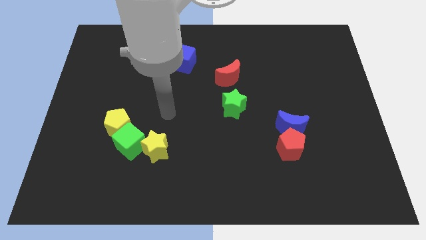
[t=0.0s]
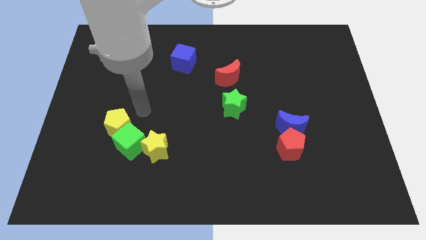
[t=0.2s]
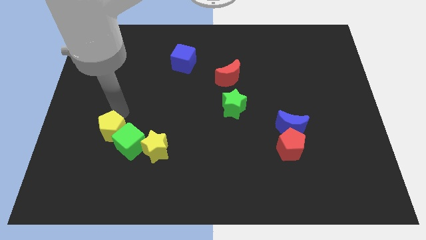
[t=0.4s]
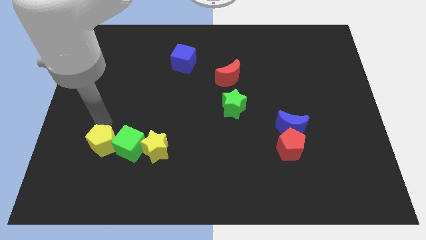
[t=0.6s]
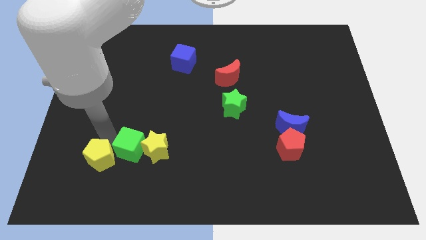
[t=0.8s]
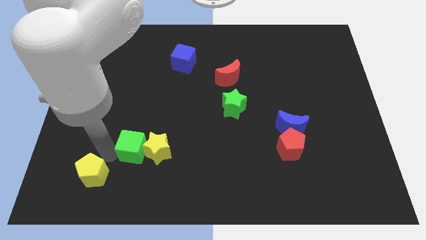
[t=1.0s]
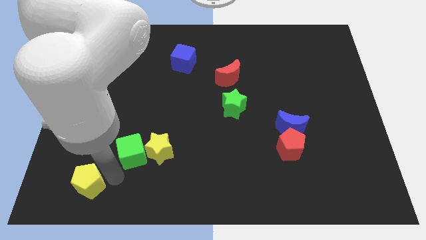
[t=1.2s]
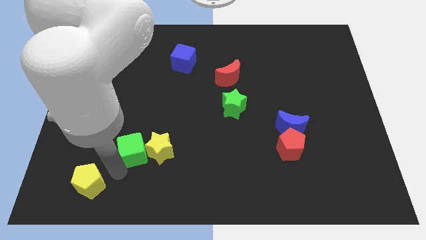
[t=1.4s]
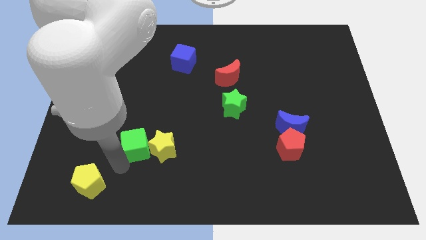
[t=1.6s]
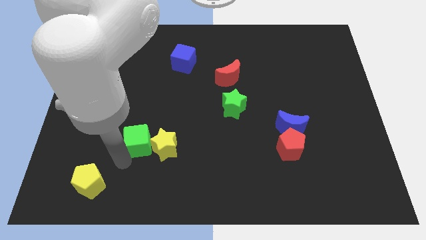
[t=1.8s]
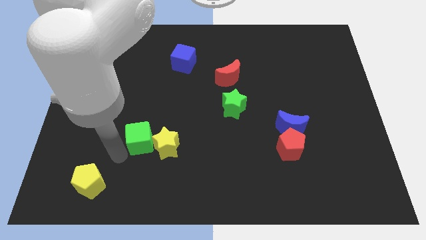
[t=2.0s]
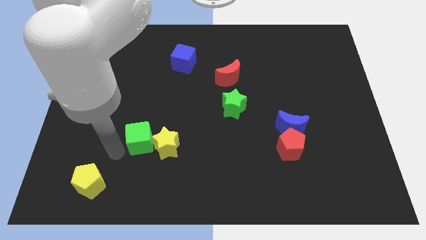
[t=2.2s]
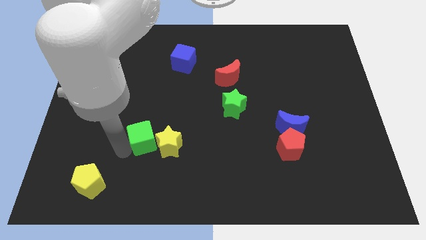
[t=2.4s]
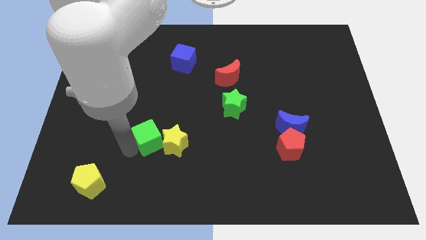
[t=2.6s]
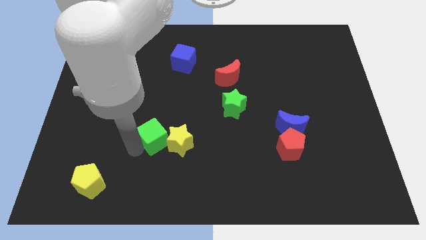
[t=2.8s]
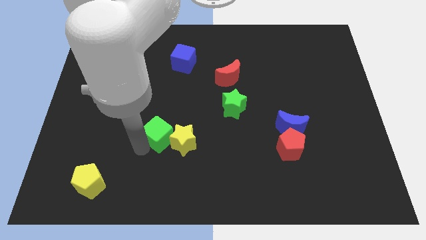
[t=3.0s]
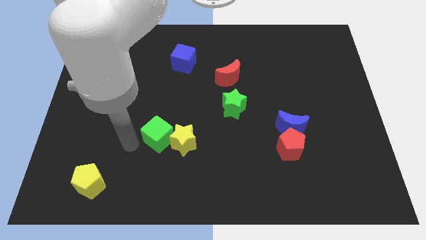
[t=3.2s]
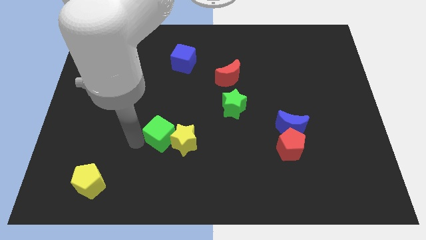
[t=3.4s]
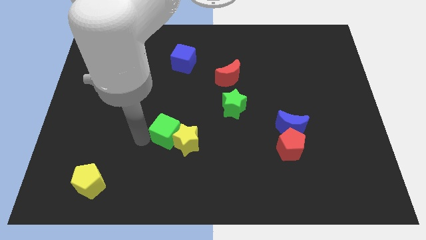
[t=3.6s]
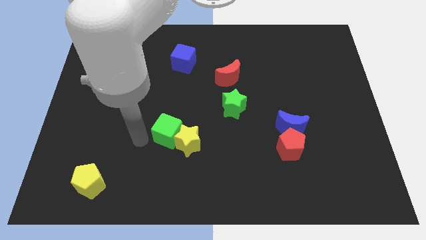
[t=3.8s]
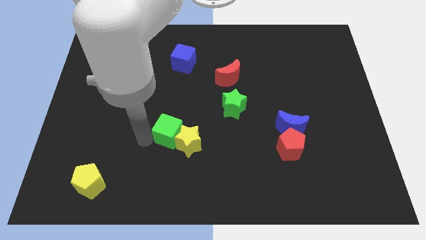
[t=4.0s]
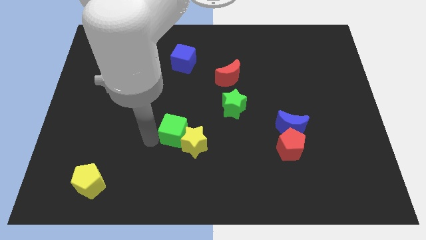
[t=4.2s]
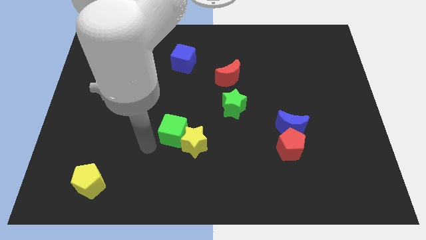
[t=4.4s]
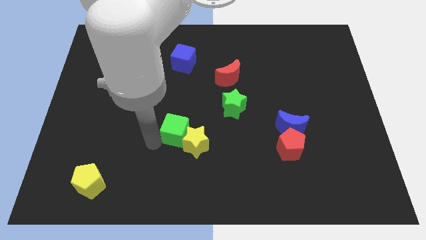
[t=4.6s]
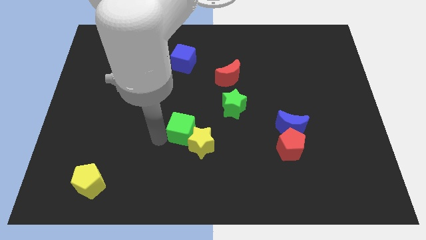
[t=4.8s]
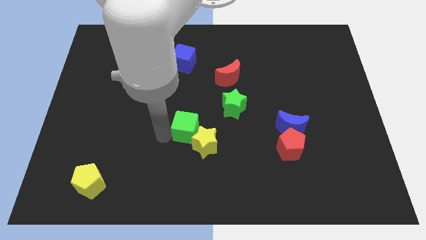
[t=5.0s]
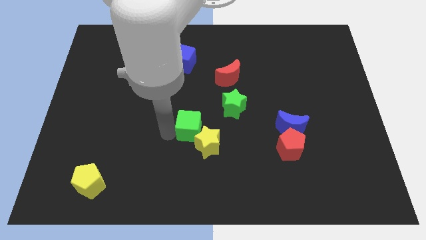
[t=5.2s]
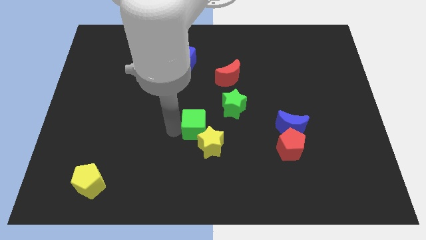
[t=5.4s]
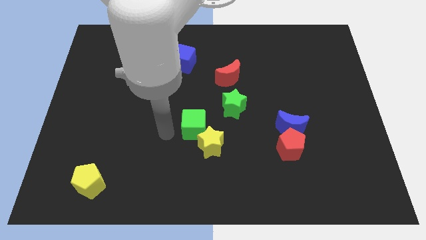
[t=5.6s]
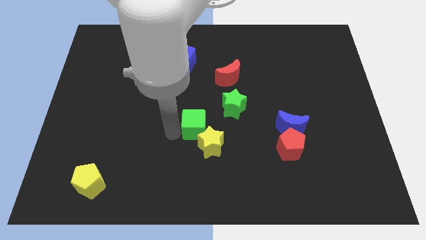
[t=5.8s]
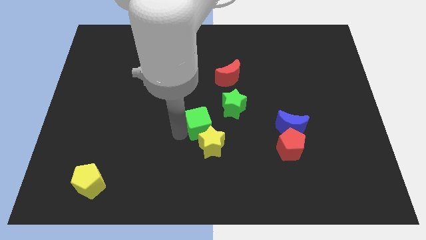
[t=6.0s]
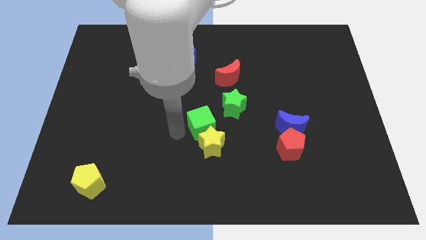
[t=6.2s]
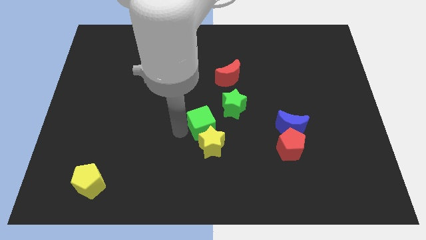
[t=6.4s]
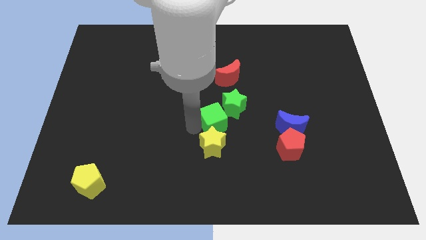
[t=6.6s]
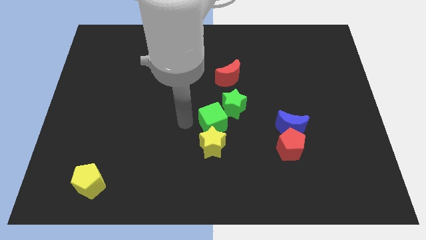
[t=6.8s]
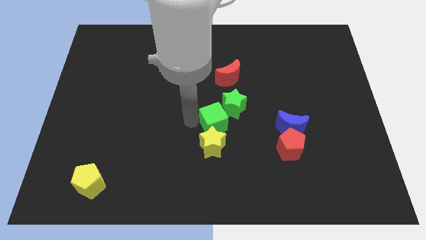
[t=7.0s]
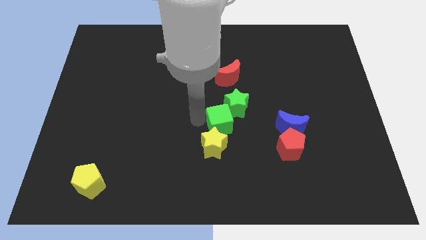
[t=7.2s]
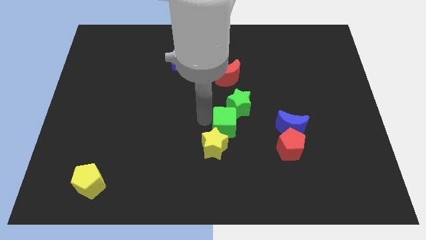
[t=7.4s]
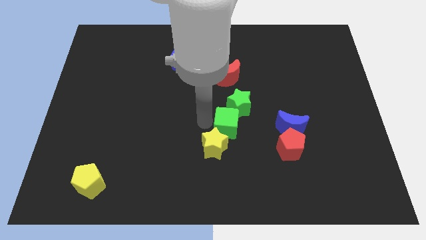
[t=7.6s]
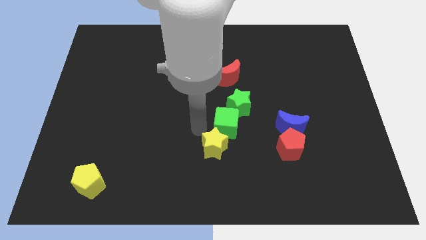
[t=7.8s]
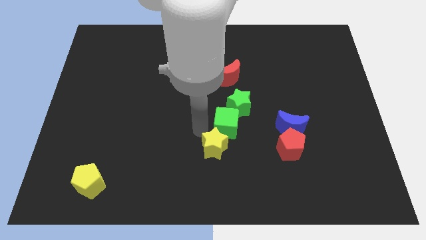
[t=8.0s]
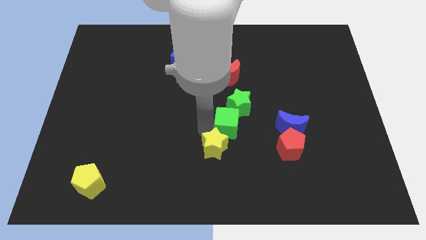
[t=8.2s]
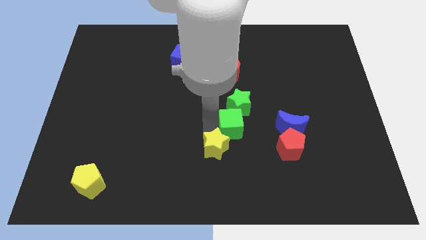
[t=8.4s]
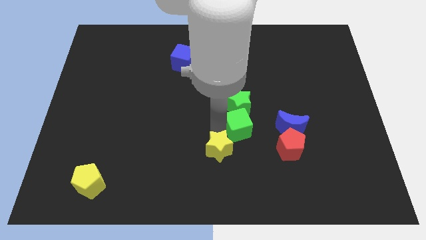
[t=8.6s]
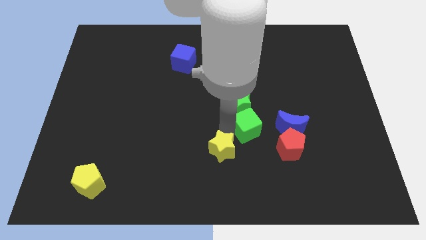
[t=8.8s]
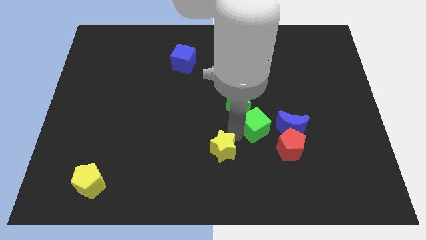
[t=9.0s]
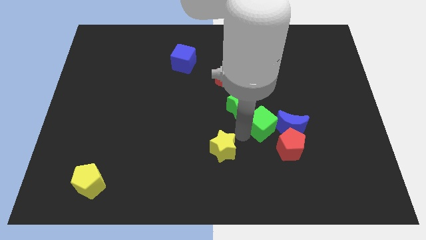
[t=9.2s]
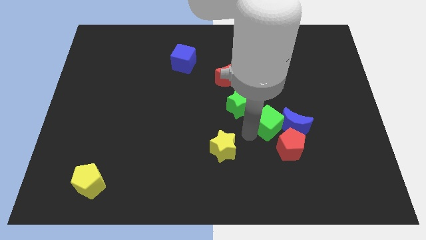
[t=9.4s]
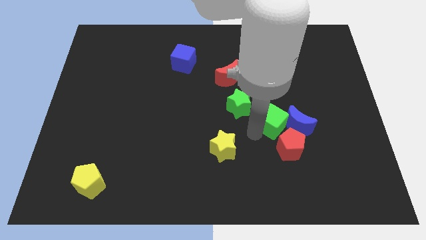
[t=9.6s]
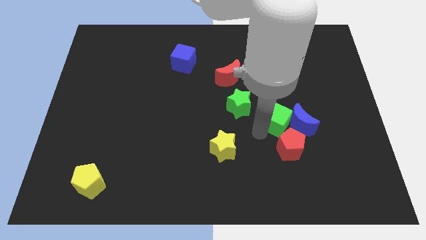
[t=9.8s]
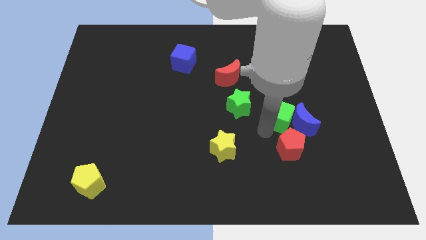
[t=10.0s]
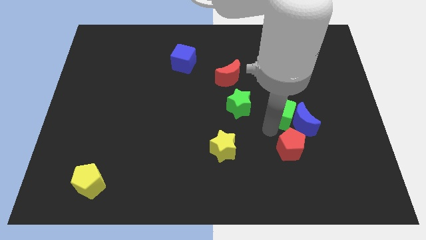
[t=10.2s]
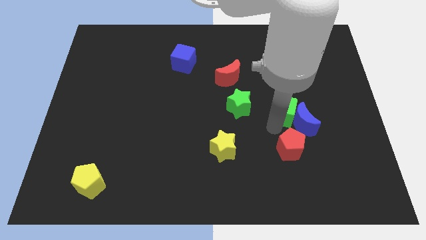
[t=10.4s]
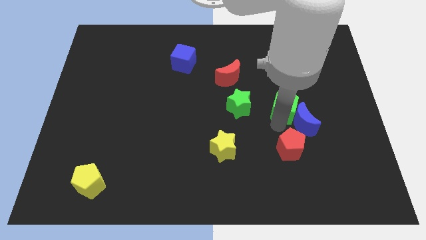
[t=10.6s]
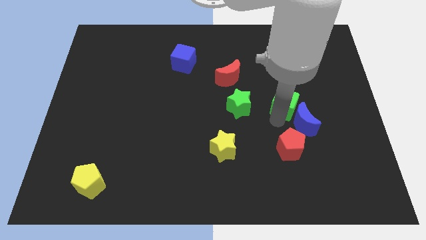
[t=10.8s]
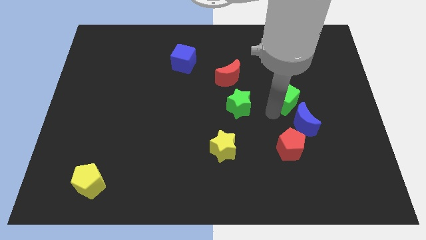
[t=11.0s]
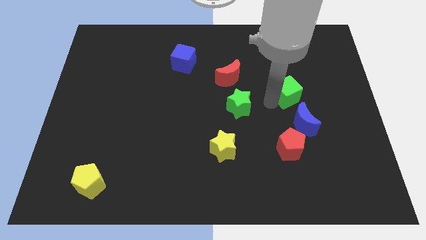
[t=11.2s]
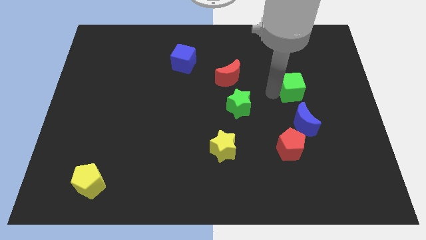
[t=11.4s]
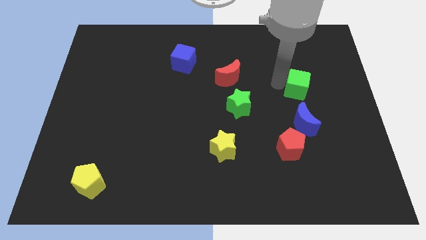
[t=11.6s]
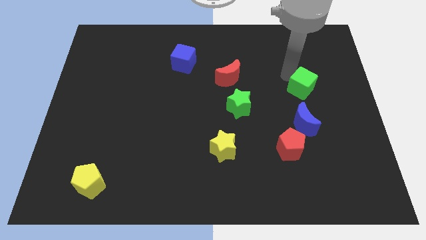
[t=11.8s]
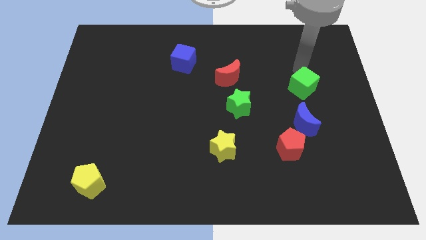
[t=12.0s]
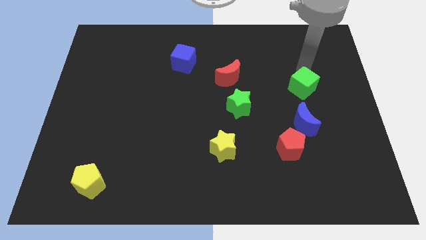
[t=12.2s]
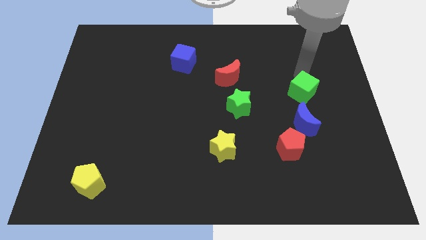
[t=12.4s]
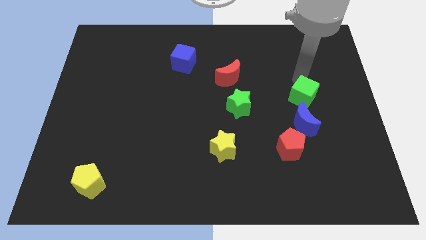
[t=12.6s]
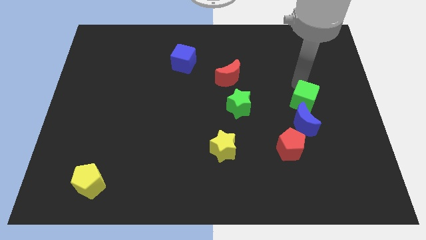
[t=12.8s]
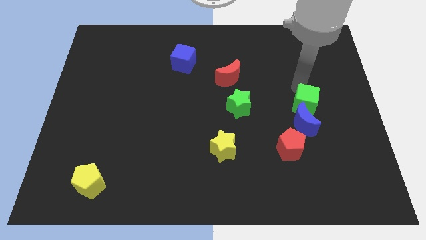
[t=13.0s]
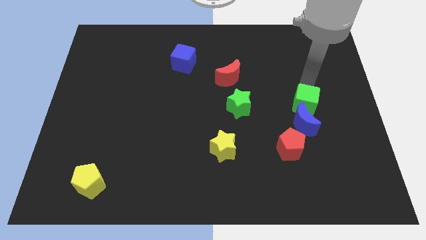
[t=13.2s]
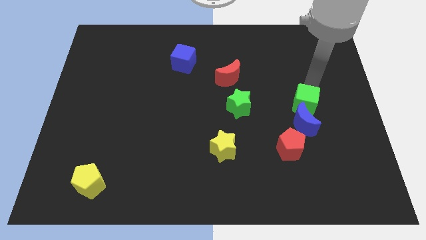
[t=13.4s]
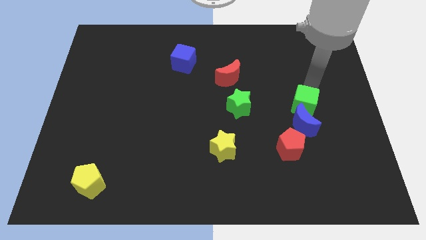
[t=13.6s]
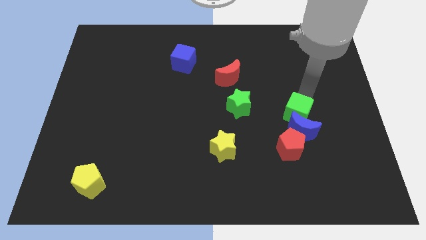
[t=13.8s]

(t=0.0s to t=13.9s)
push the green cube to the top right of the red pentagon
